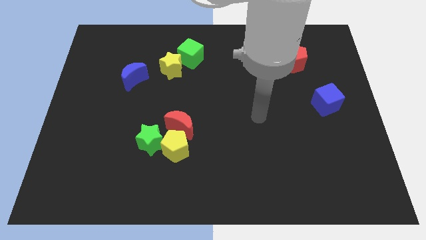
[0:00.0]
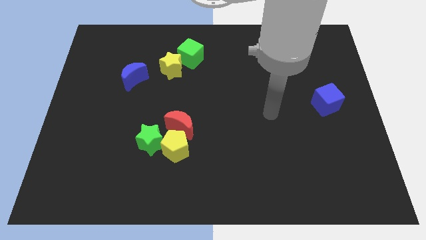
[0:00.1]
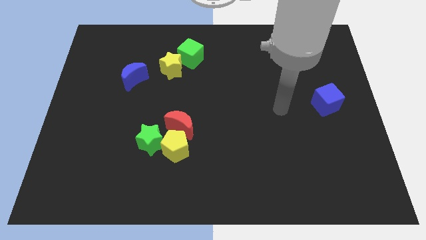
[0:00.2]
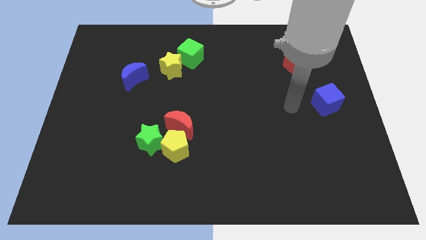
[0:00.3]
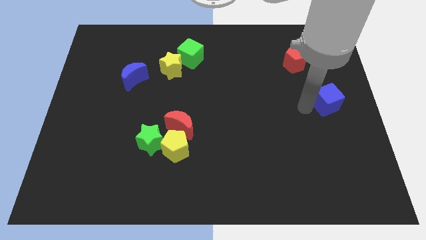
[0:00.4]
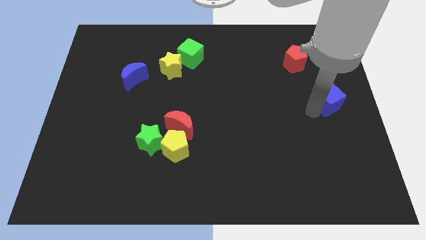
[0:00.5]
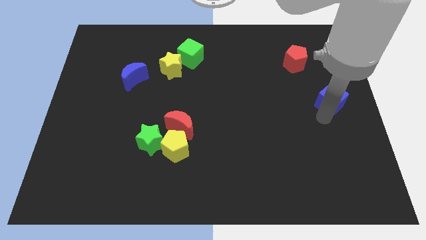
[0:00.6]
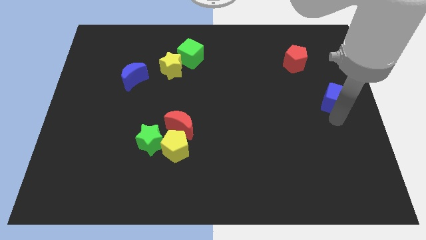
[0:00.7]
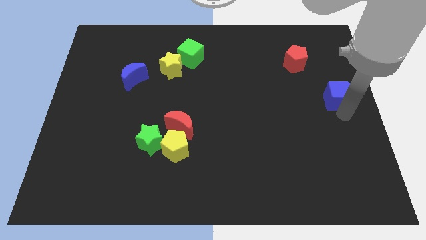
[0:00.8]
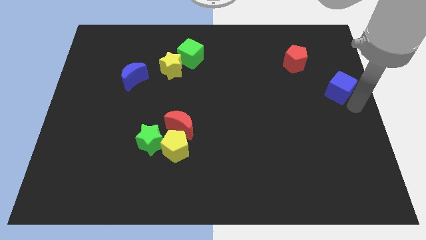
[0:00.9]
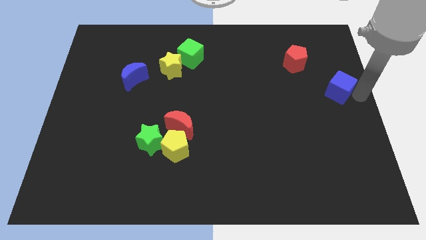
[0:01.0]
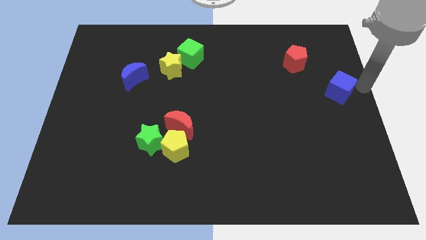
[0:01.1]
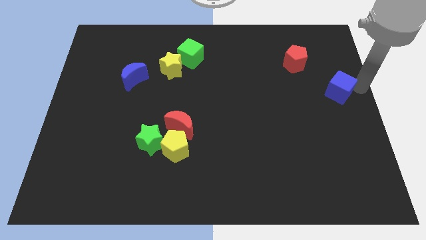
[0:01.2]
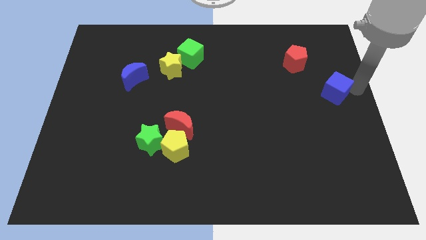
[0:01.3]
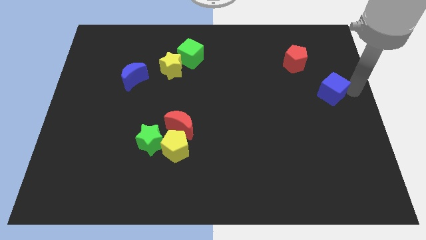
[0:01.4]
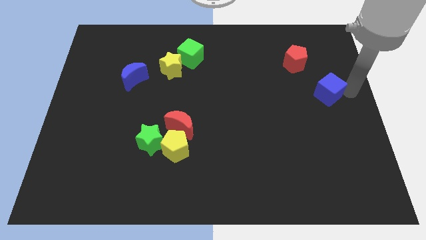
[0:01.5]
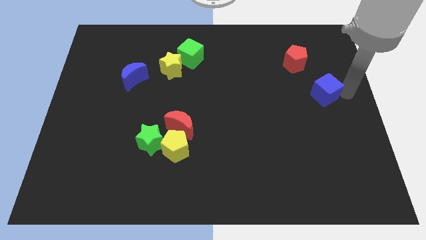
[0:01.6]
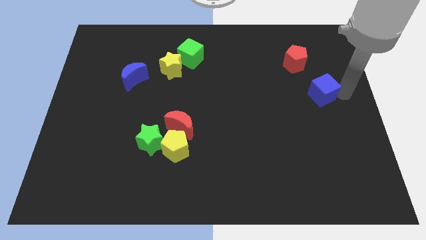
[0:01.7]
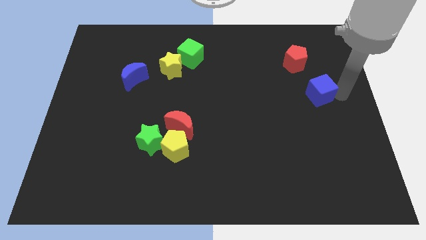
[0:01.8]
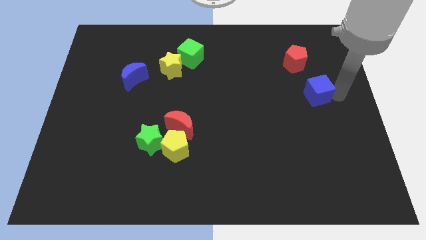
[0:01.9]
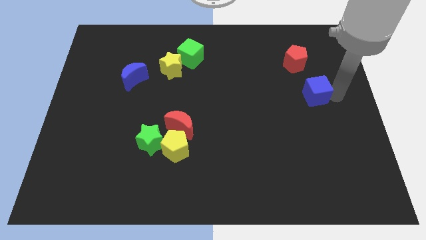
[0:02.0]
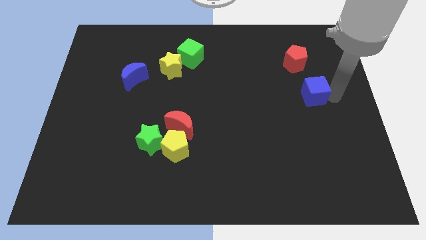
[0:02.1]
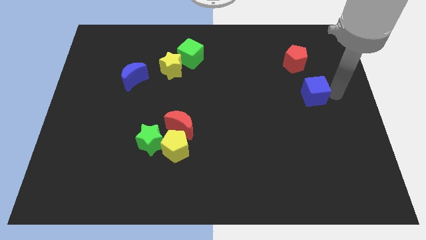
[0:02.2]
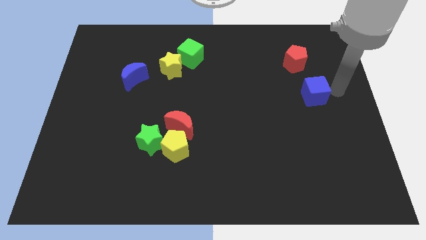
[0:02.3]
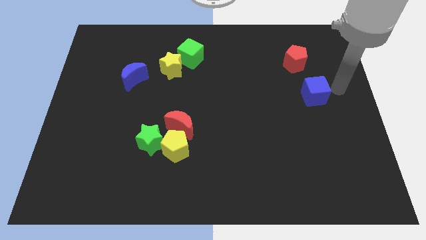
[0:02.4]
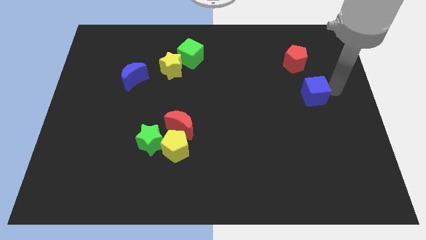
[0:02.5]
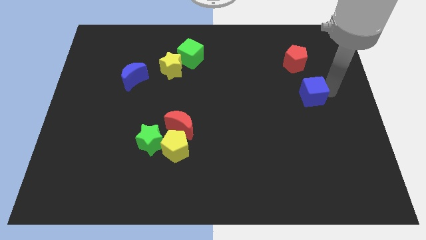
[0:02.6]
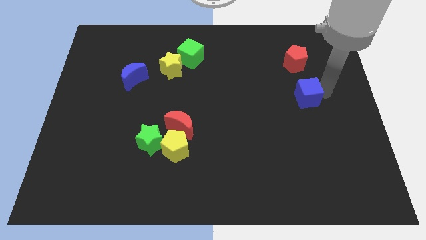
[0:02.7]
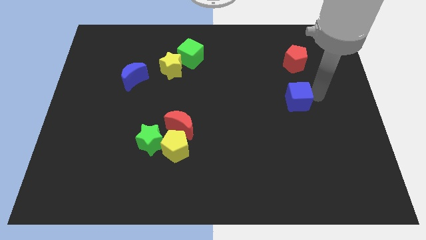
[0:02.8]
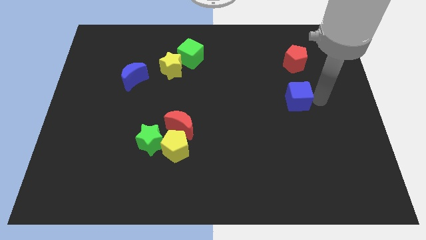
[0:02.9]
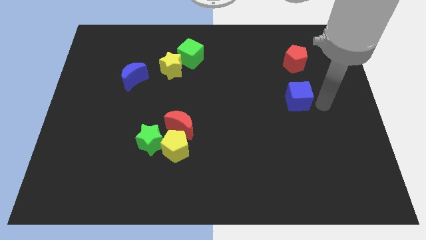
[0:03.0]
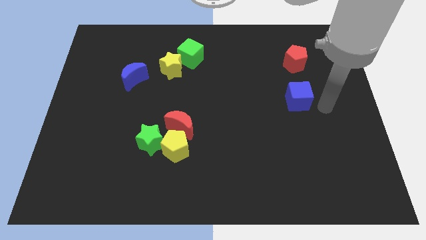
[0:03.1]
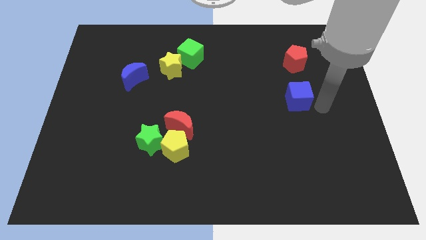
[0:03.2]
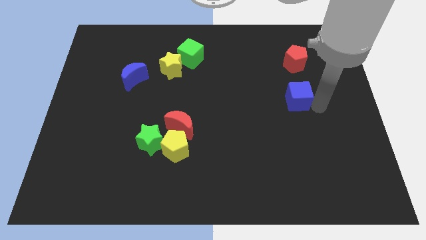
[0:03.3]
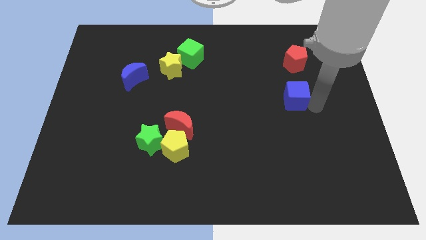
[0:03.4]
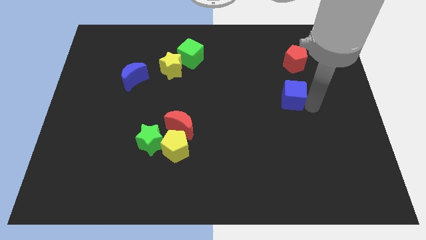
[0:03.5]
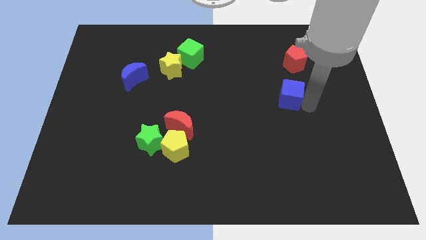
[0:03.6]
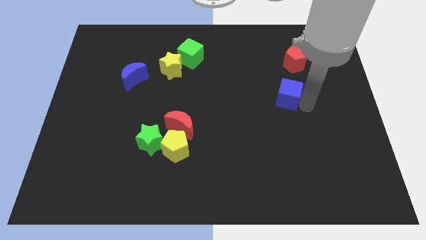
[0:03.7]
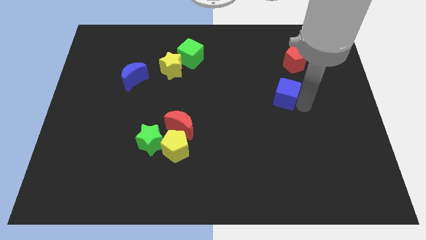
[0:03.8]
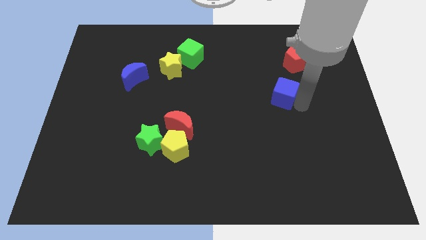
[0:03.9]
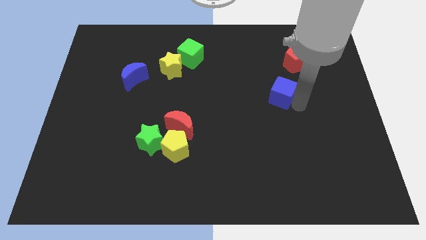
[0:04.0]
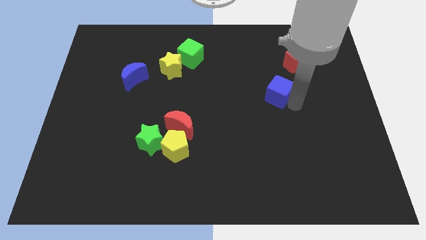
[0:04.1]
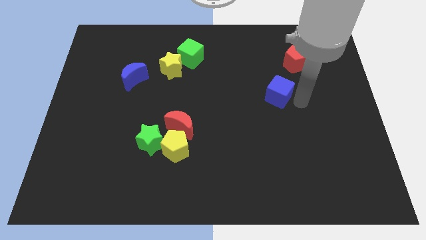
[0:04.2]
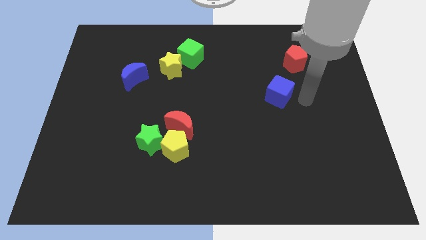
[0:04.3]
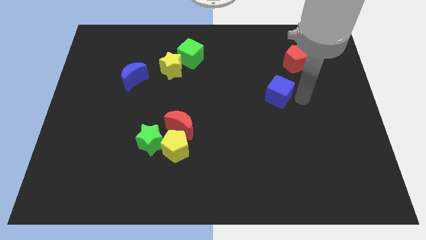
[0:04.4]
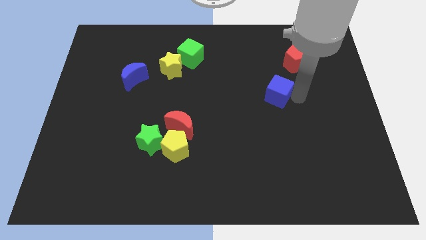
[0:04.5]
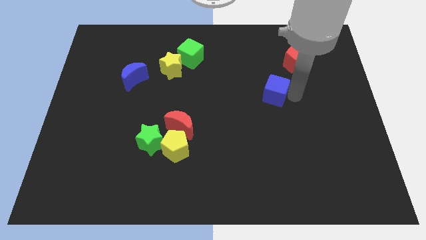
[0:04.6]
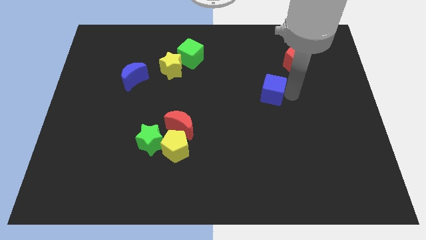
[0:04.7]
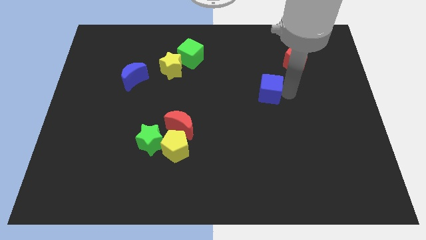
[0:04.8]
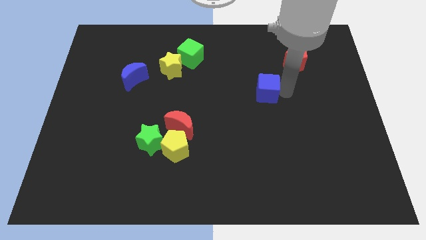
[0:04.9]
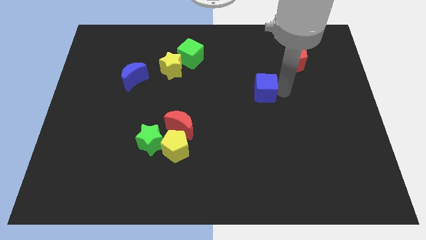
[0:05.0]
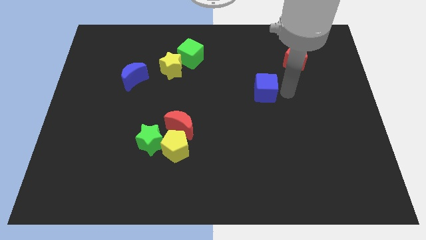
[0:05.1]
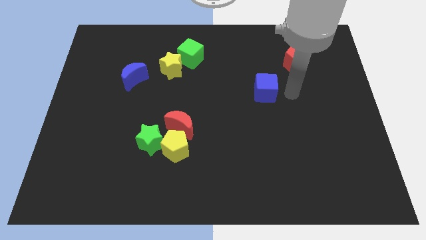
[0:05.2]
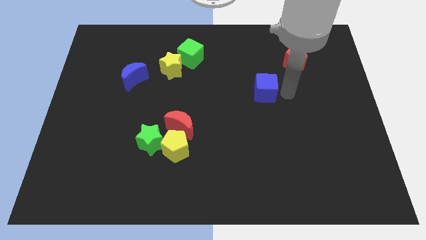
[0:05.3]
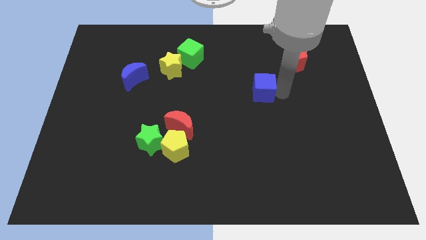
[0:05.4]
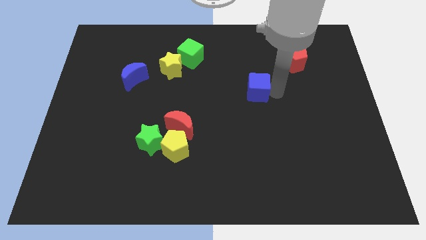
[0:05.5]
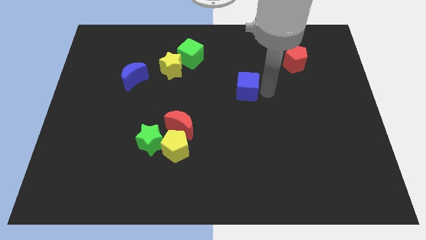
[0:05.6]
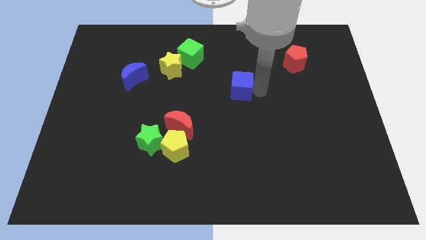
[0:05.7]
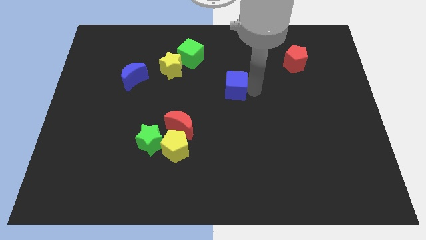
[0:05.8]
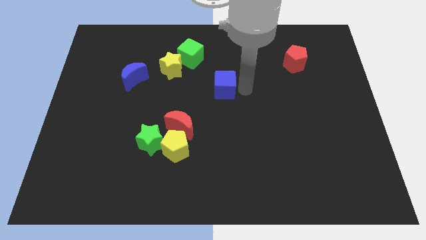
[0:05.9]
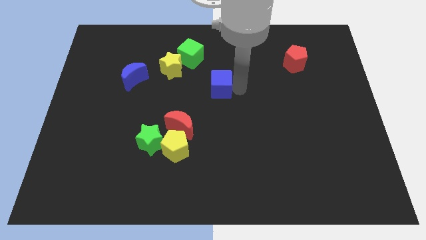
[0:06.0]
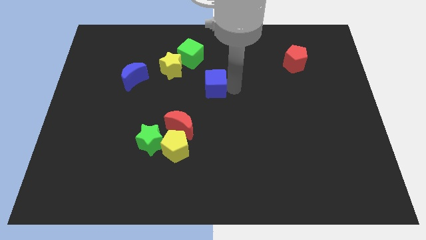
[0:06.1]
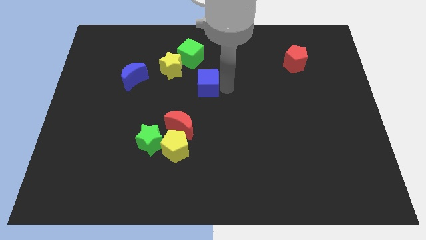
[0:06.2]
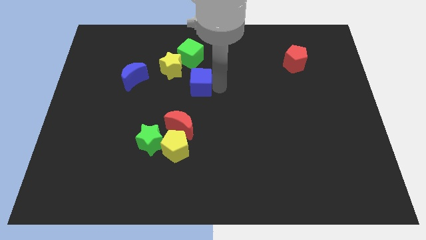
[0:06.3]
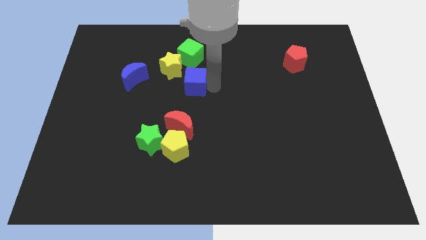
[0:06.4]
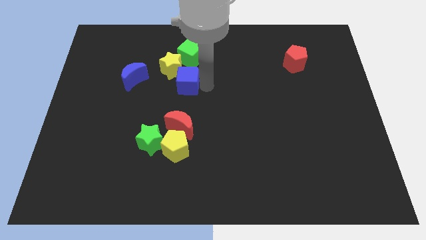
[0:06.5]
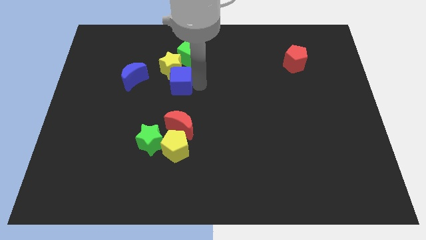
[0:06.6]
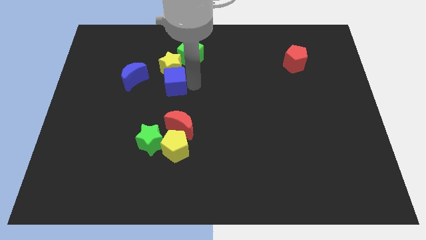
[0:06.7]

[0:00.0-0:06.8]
push the blue cube to the bottom left side of the yellow star
